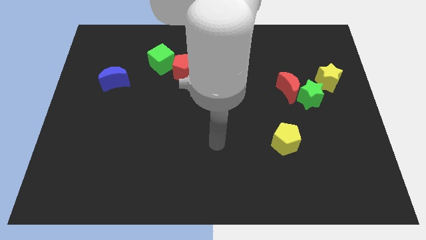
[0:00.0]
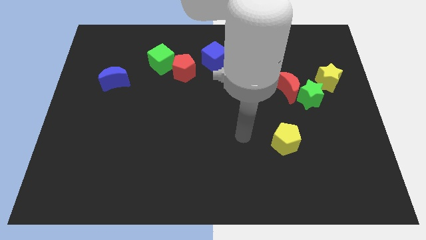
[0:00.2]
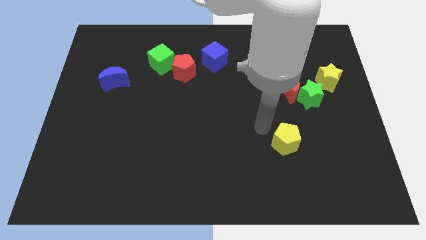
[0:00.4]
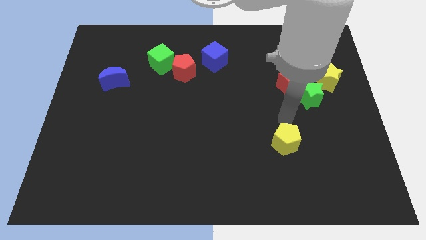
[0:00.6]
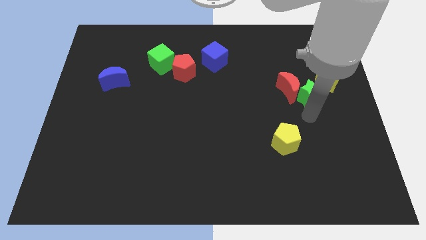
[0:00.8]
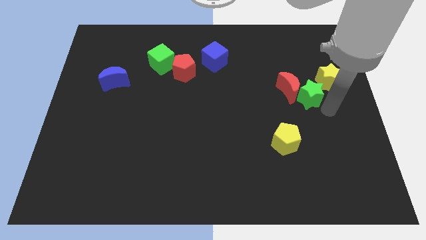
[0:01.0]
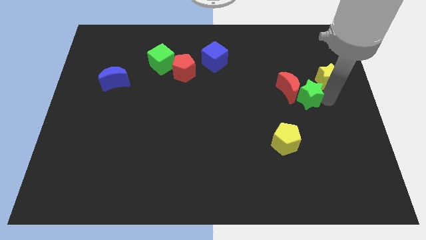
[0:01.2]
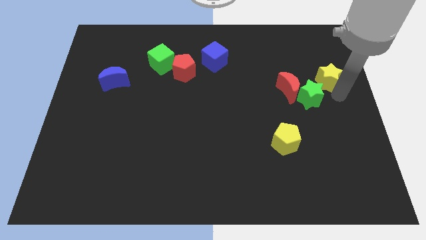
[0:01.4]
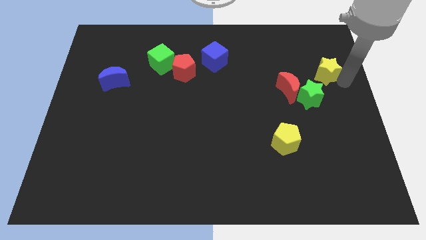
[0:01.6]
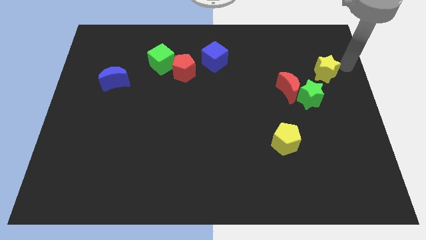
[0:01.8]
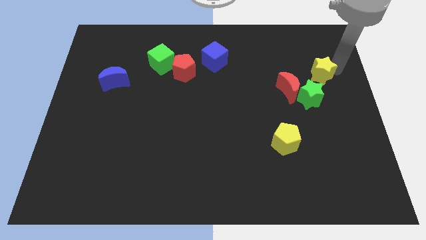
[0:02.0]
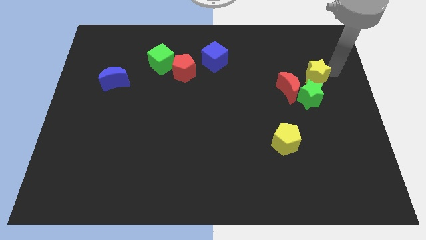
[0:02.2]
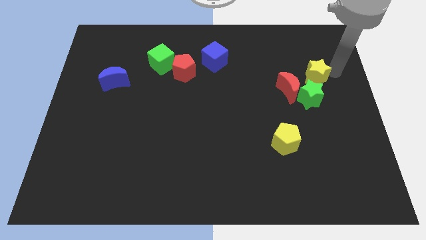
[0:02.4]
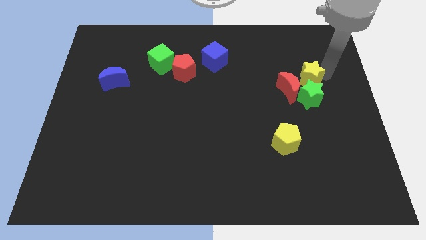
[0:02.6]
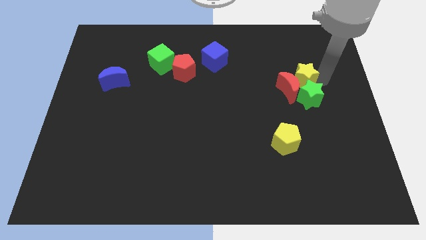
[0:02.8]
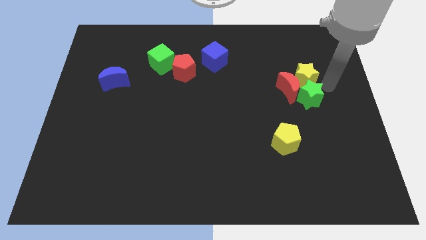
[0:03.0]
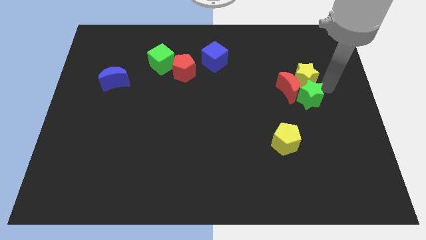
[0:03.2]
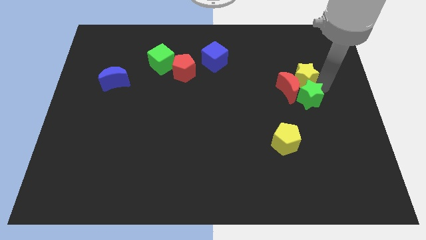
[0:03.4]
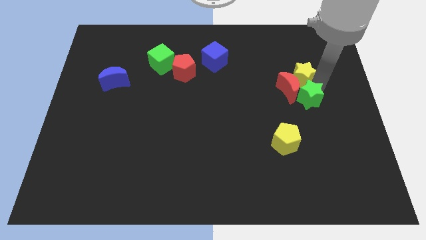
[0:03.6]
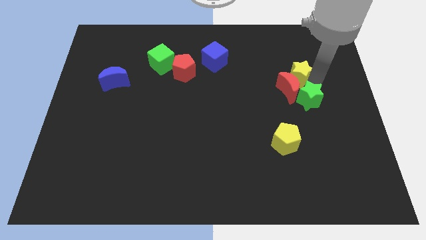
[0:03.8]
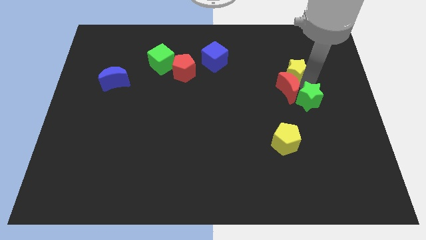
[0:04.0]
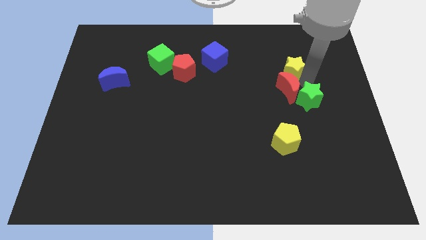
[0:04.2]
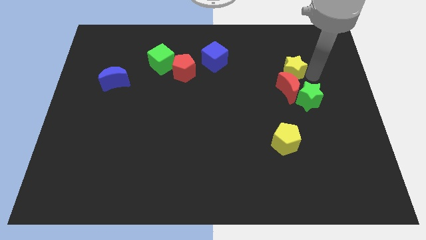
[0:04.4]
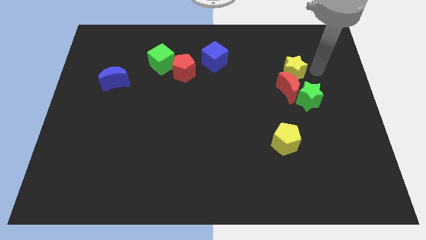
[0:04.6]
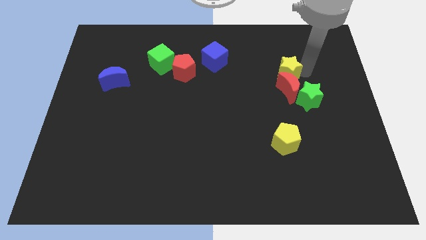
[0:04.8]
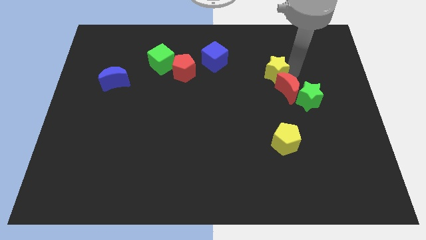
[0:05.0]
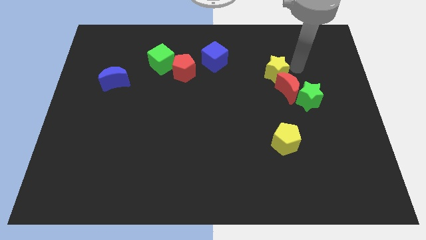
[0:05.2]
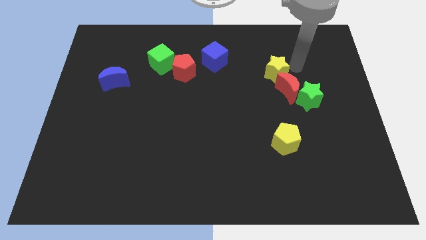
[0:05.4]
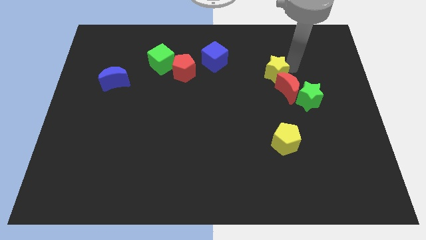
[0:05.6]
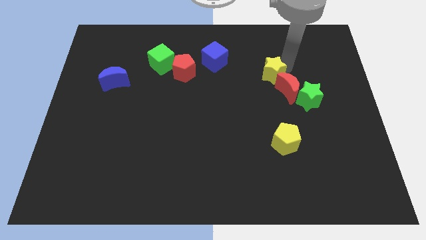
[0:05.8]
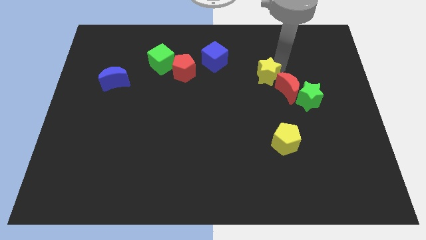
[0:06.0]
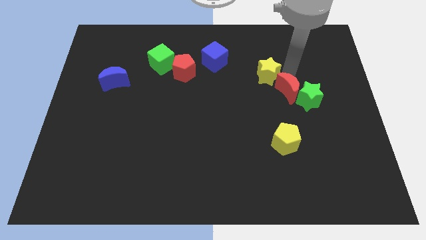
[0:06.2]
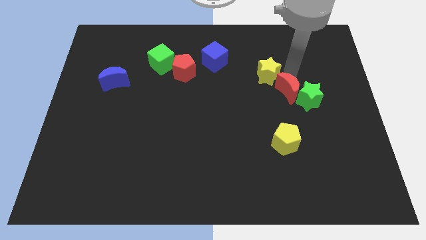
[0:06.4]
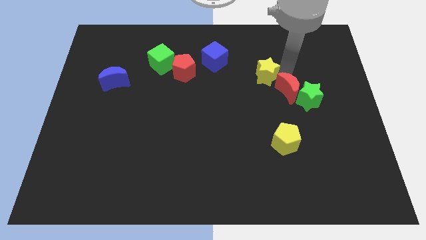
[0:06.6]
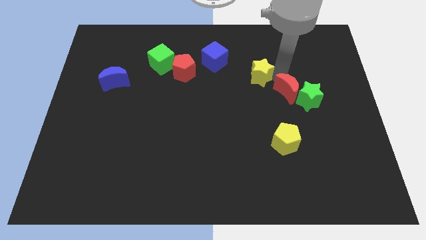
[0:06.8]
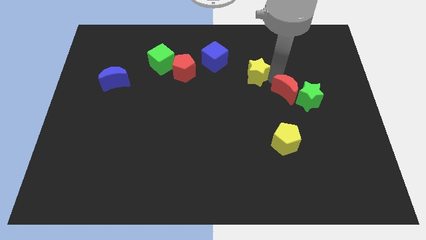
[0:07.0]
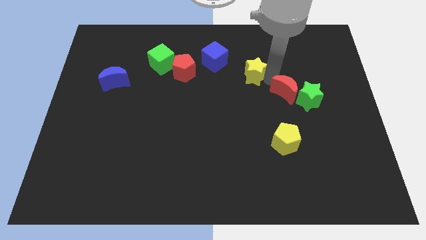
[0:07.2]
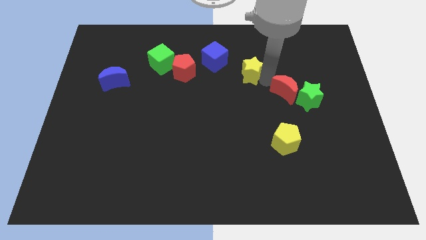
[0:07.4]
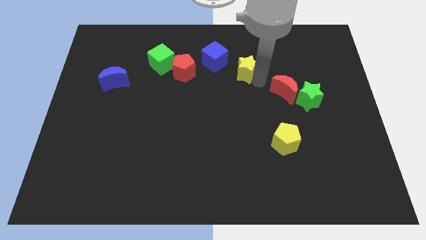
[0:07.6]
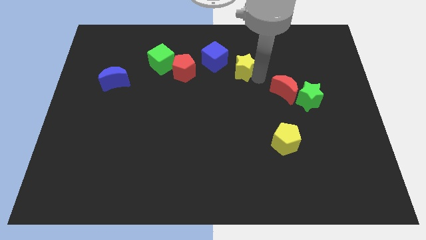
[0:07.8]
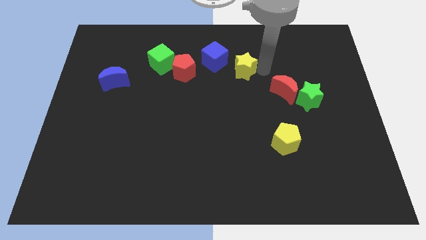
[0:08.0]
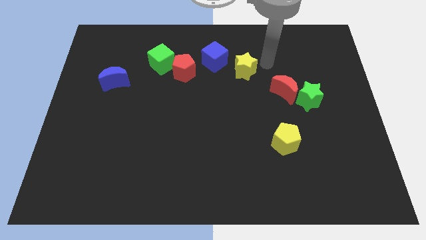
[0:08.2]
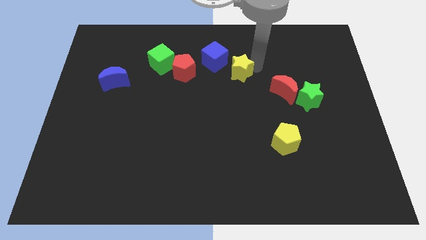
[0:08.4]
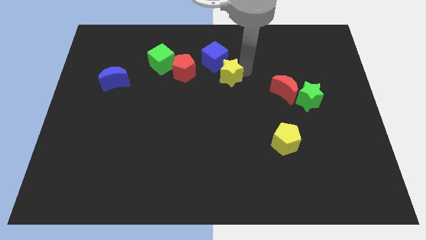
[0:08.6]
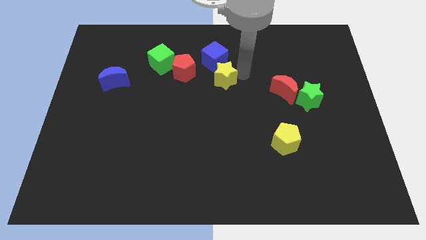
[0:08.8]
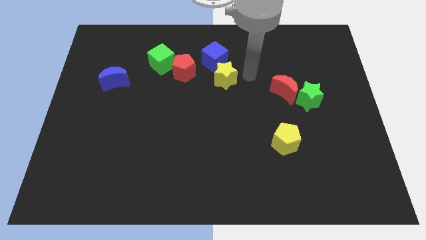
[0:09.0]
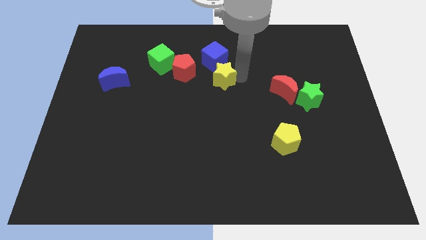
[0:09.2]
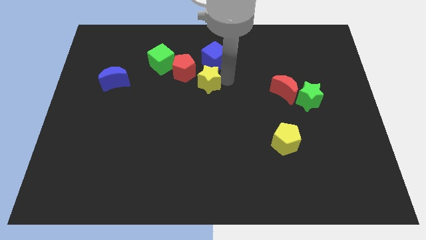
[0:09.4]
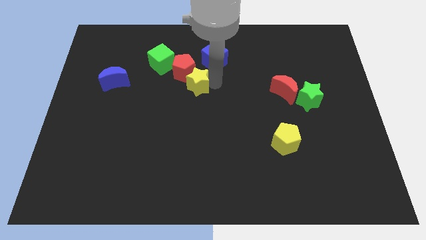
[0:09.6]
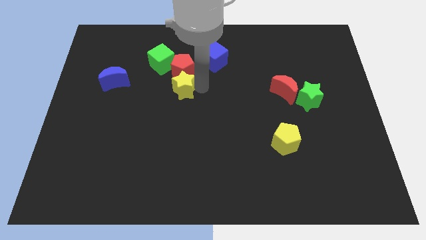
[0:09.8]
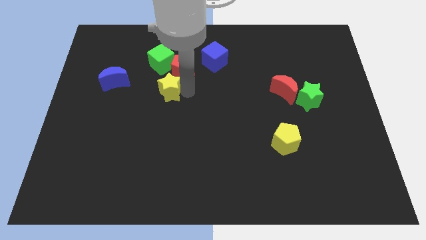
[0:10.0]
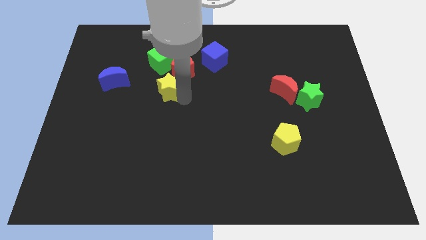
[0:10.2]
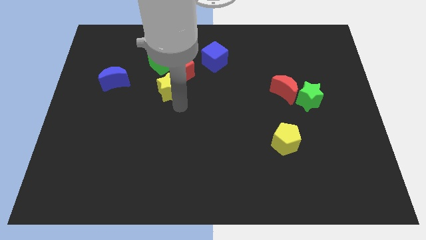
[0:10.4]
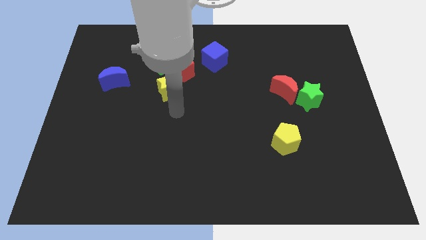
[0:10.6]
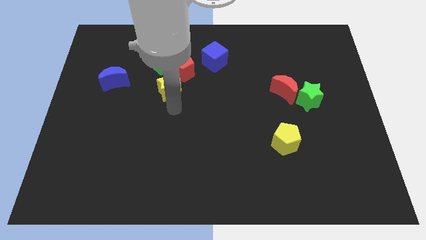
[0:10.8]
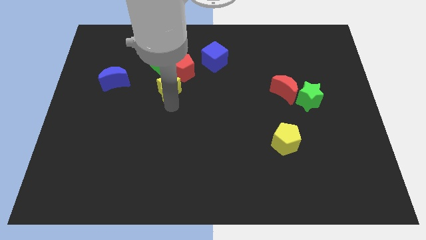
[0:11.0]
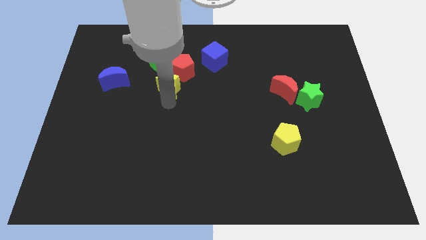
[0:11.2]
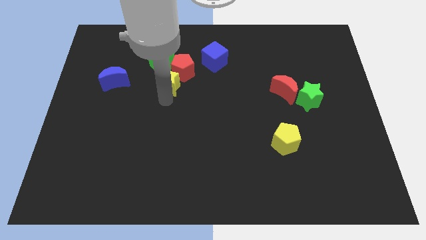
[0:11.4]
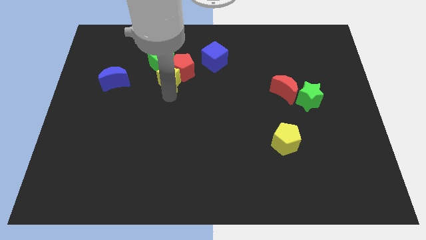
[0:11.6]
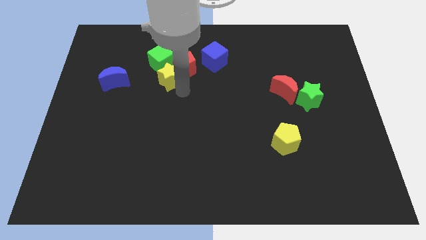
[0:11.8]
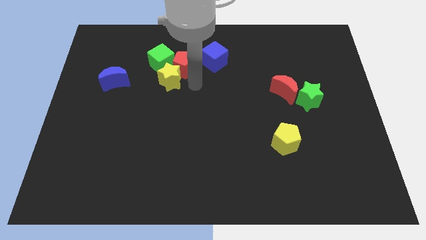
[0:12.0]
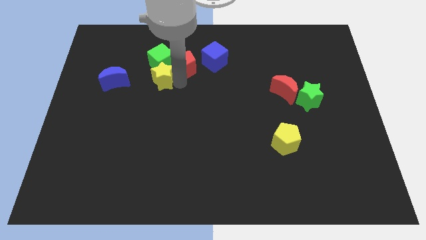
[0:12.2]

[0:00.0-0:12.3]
push the yellow star to the bottom left side of the green cube
